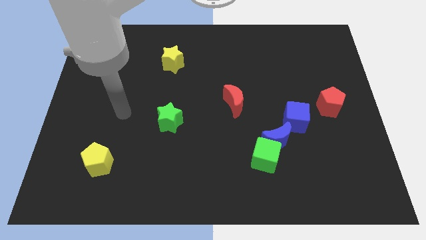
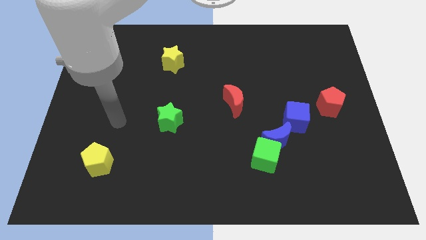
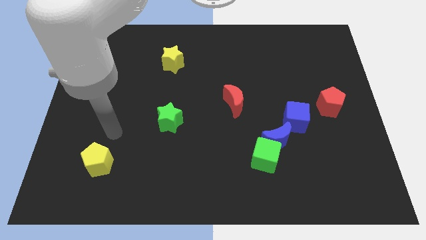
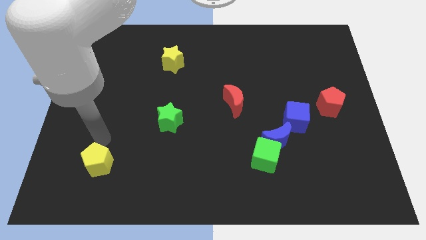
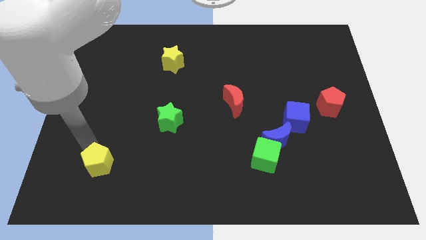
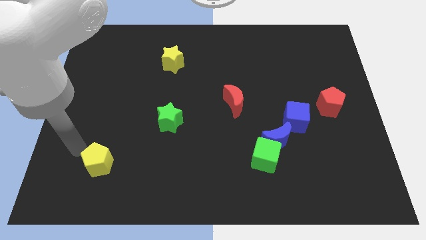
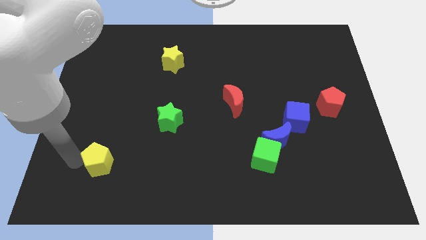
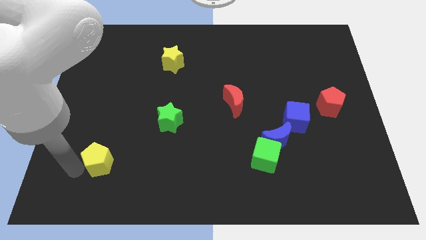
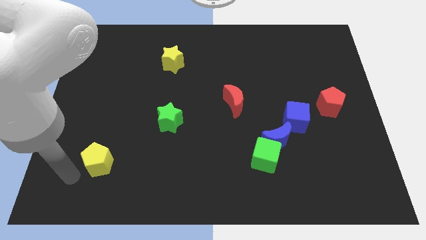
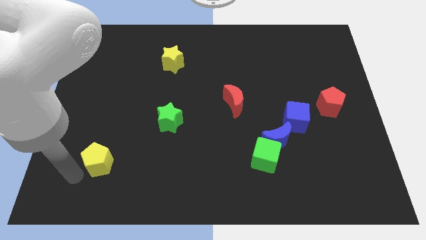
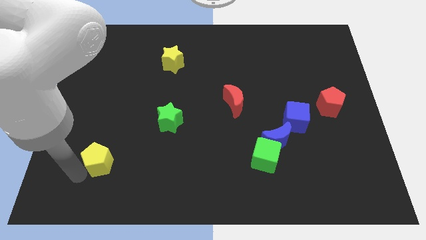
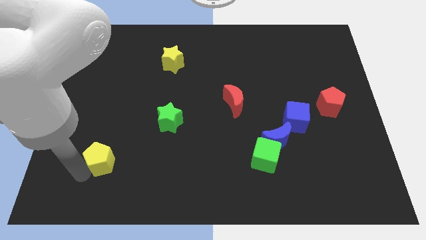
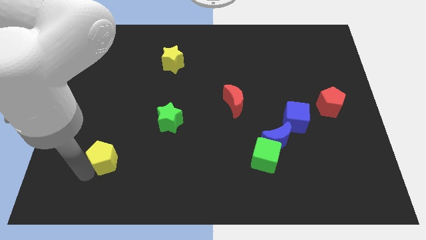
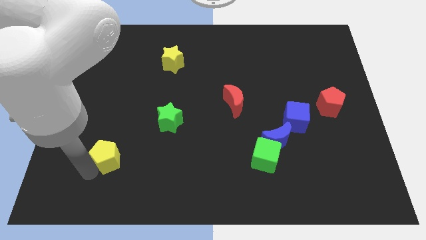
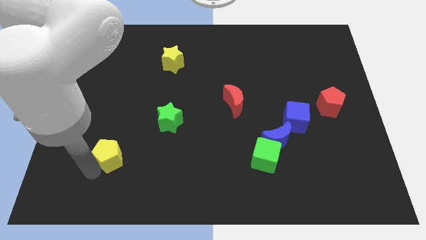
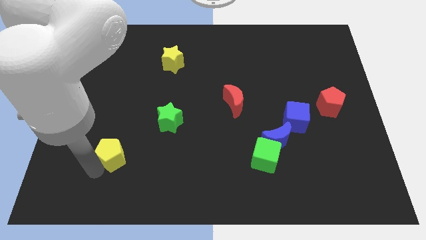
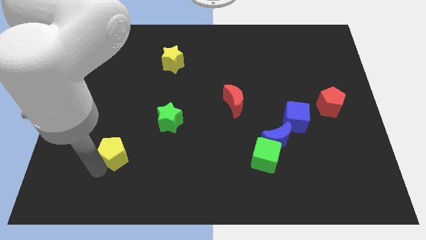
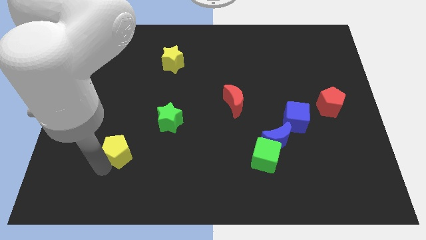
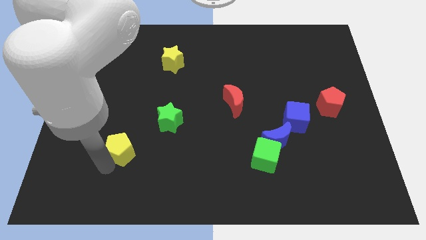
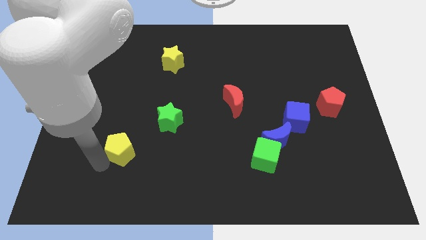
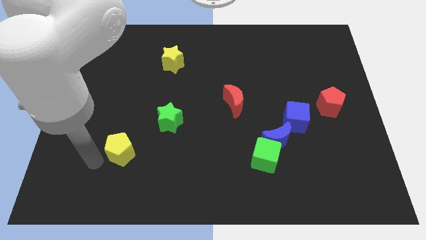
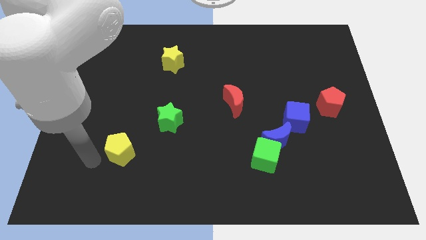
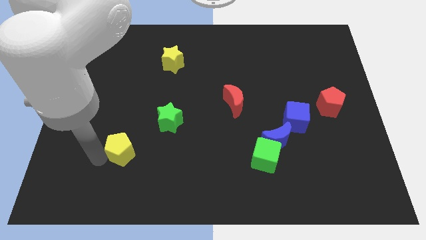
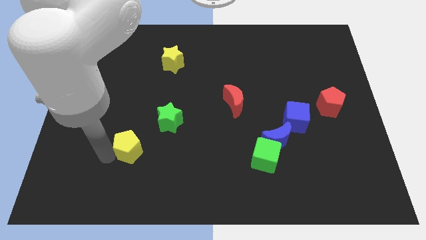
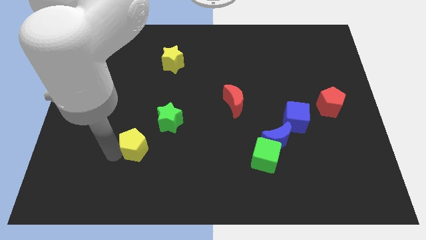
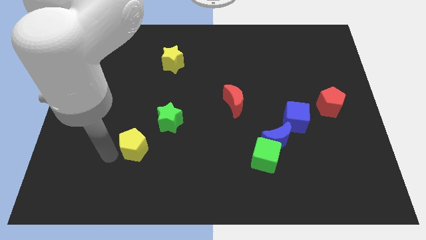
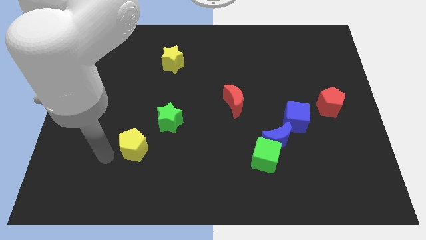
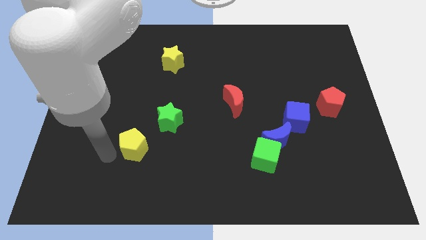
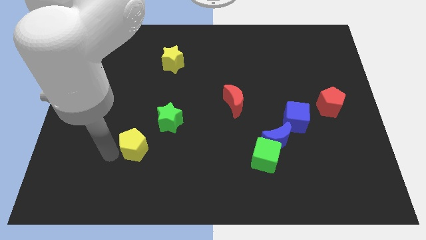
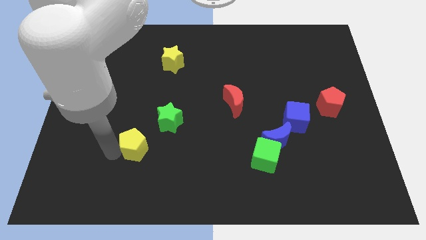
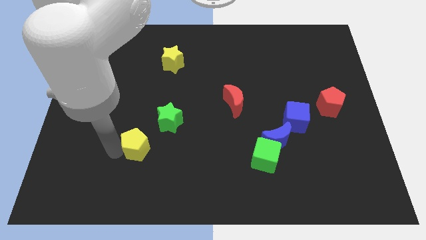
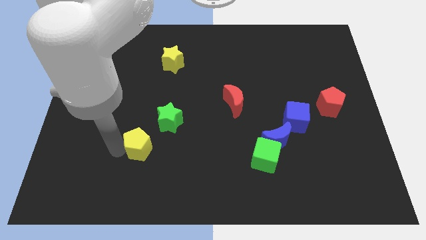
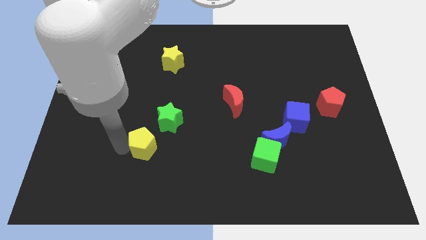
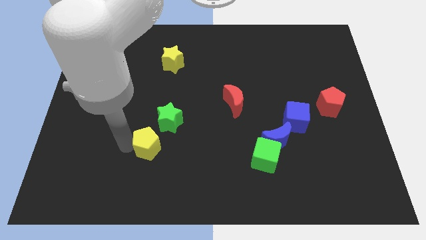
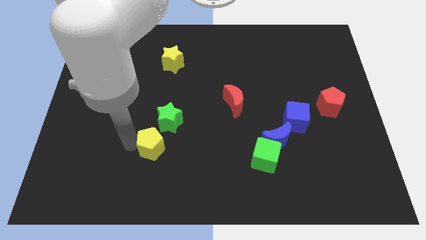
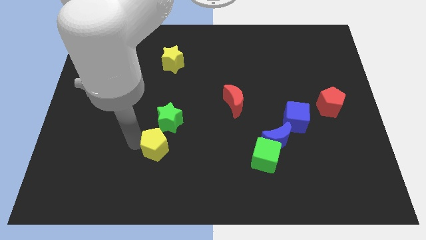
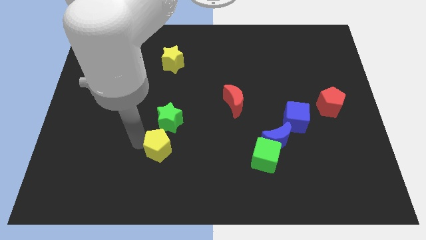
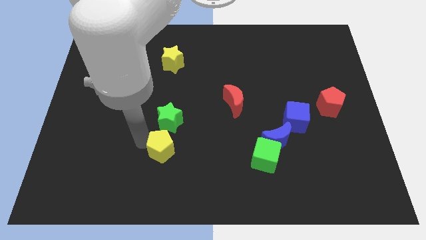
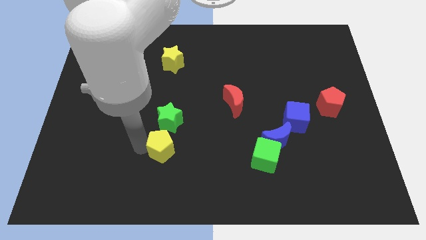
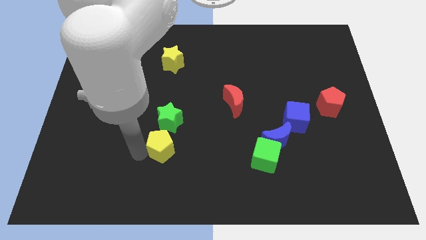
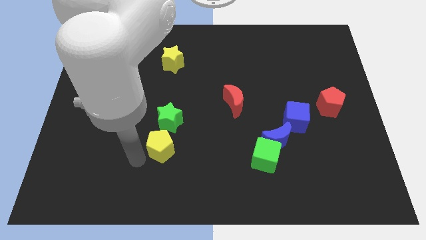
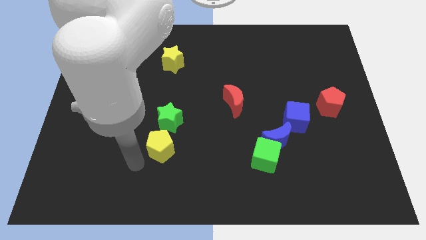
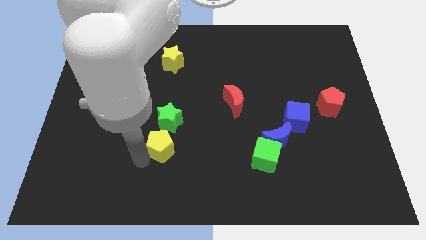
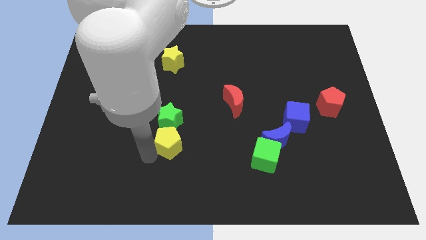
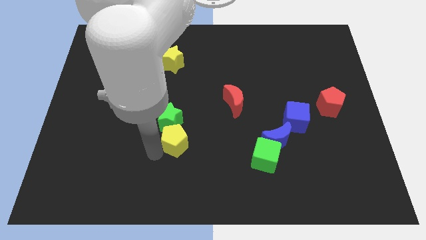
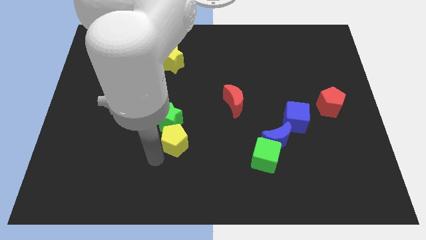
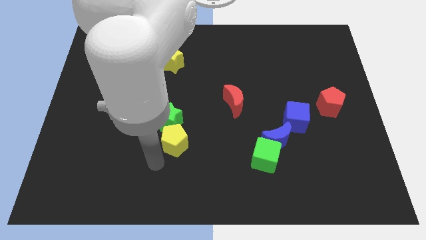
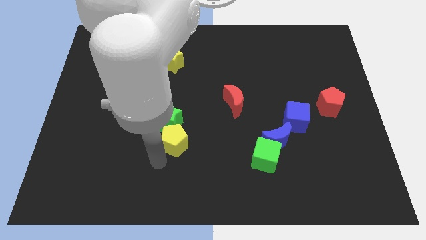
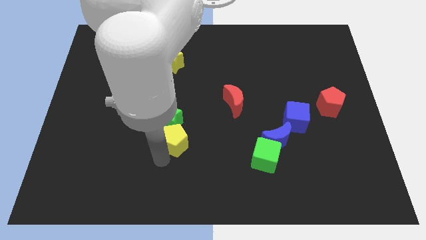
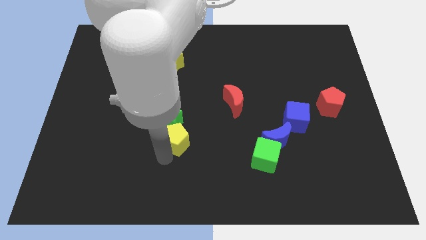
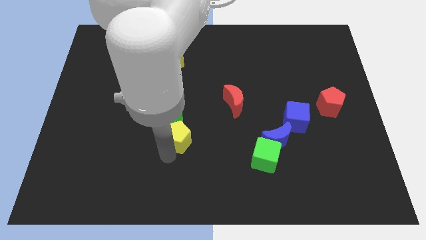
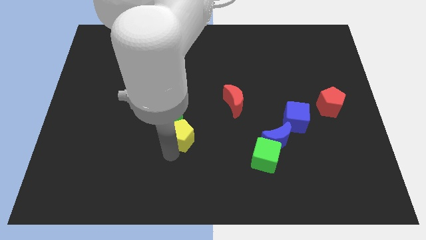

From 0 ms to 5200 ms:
push the yellow pentagon to the center

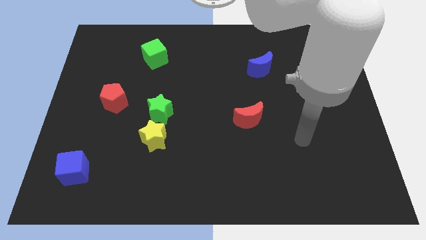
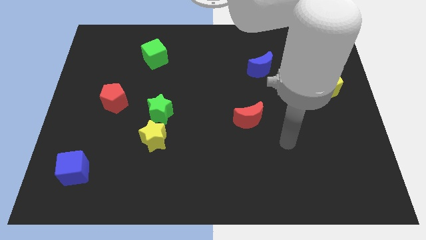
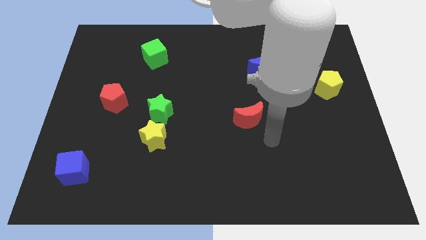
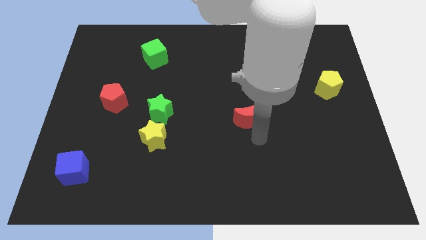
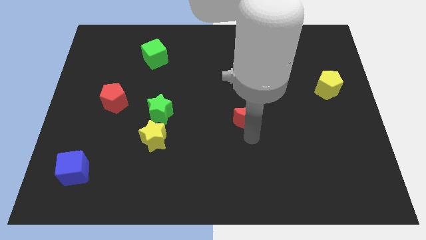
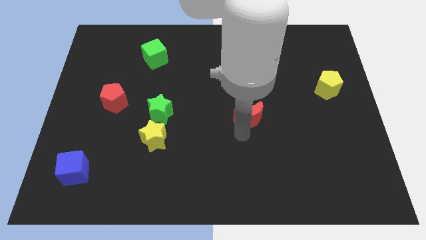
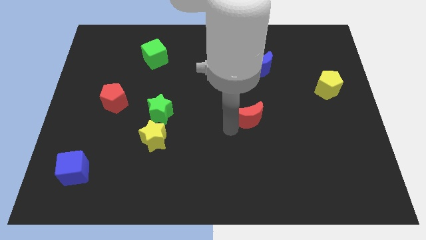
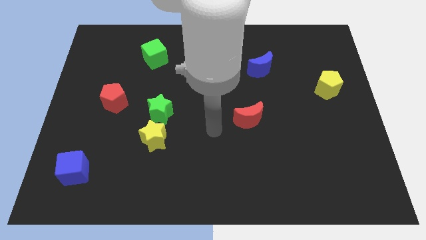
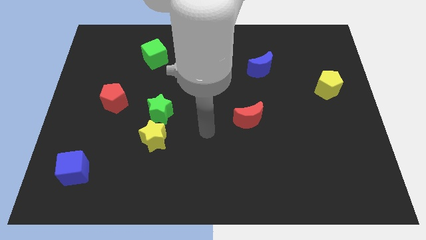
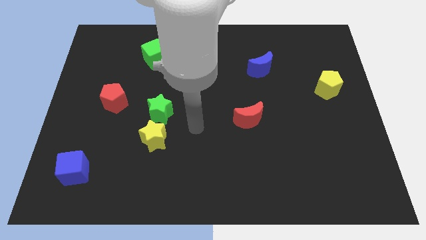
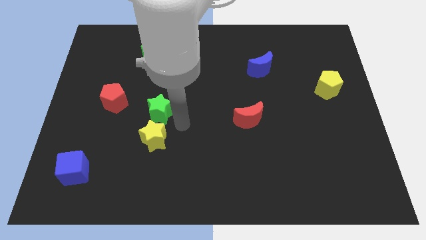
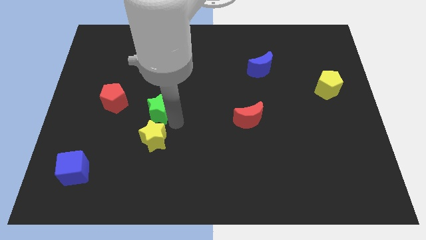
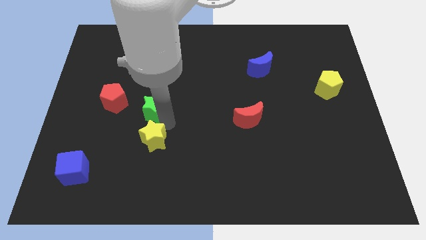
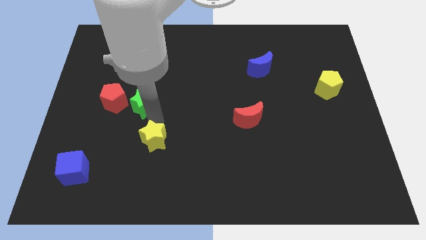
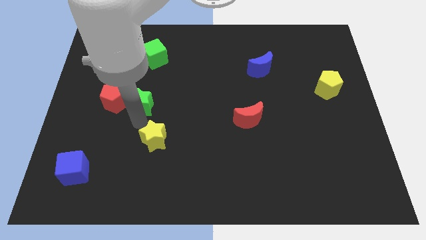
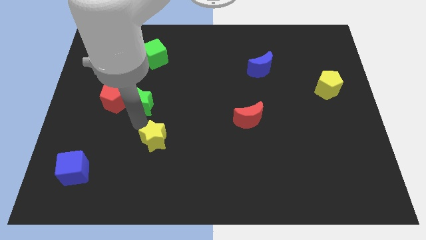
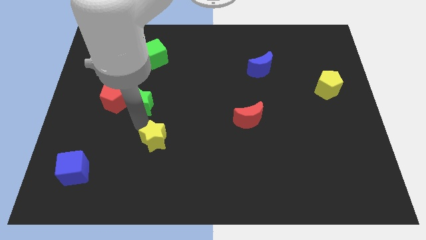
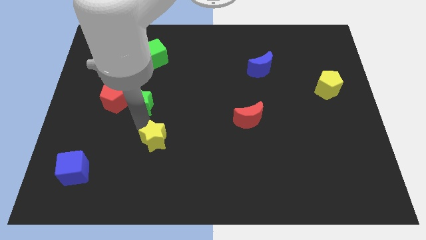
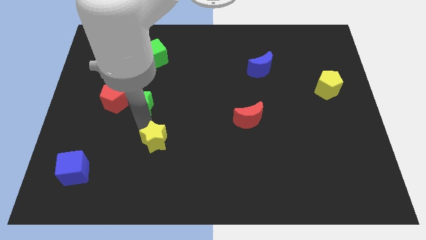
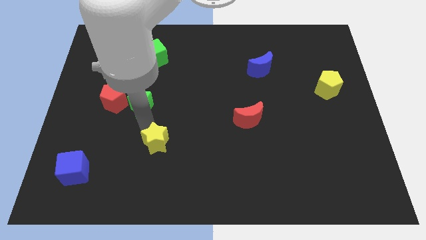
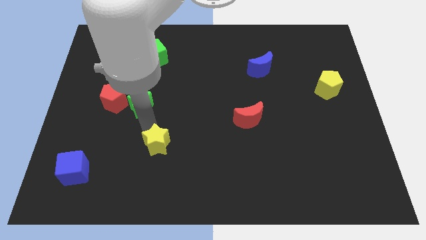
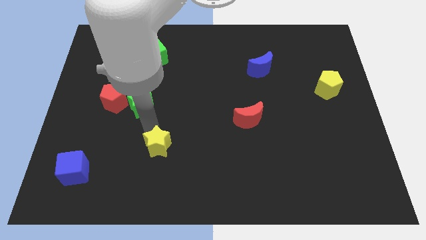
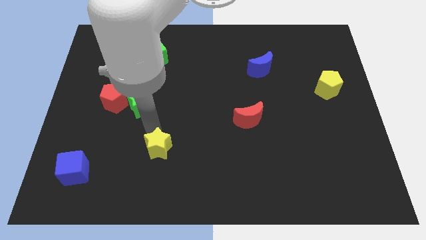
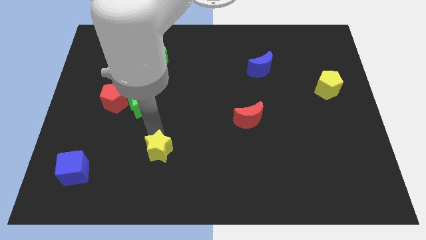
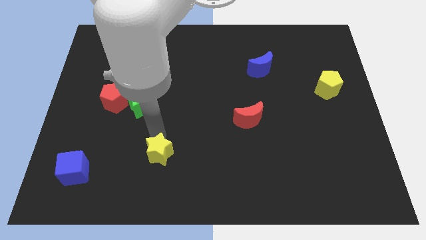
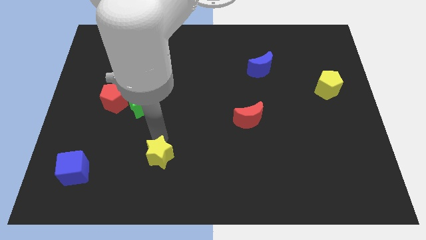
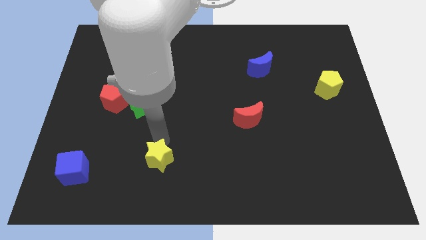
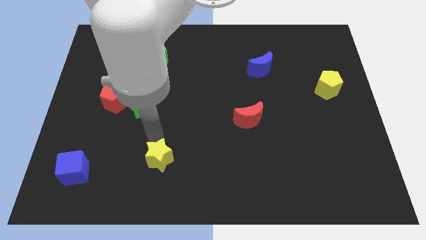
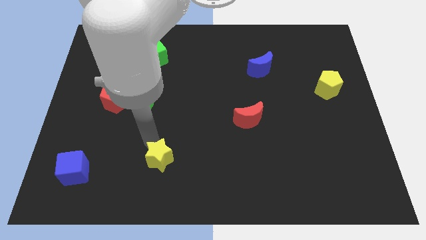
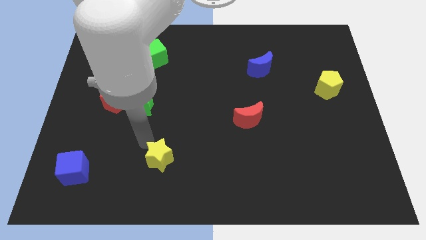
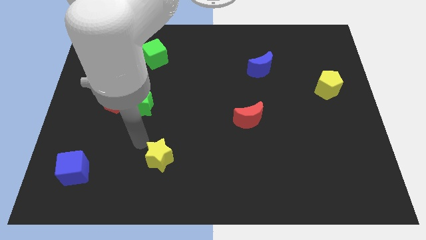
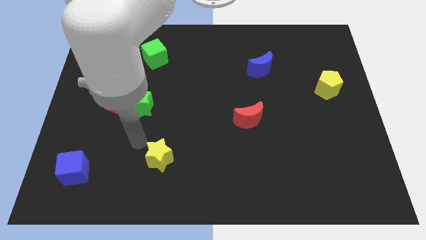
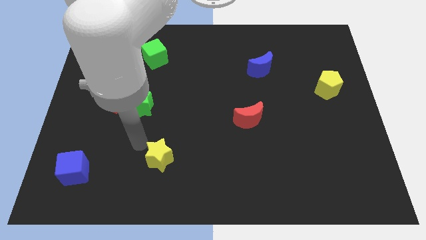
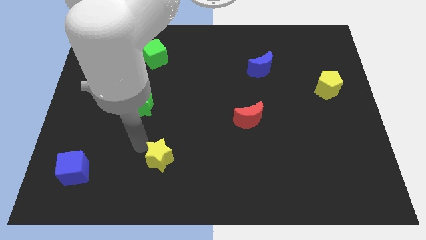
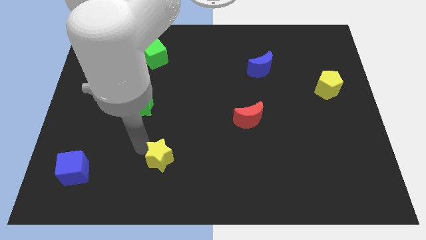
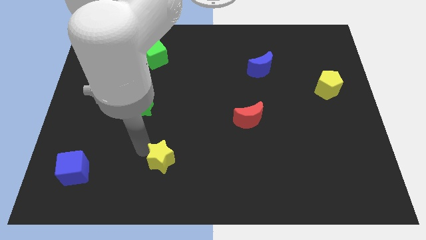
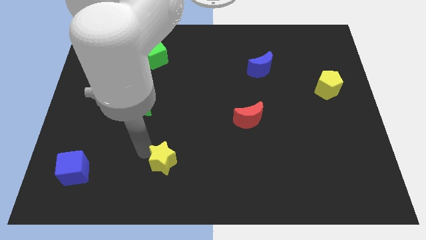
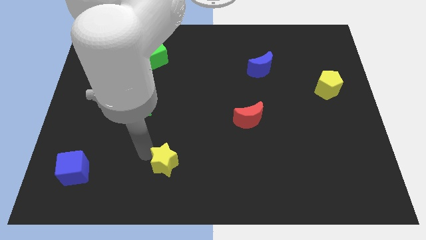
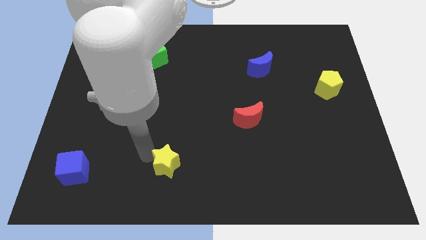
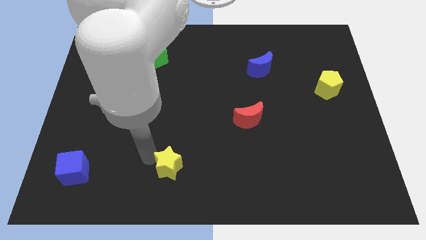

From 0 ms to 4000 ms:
put the yellow star to the bottom
